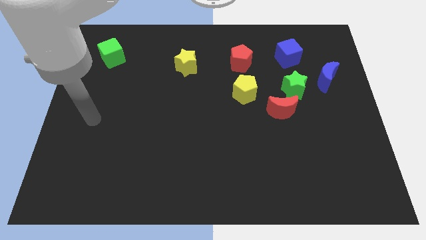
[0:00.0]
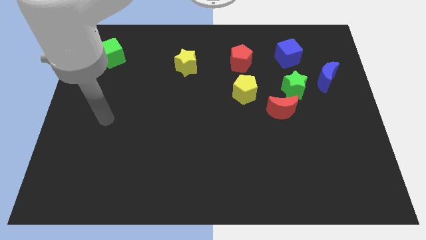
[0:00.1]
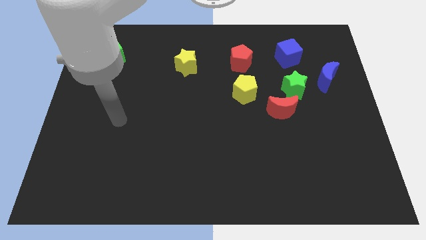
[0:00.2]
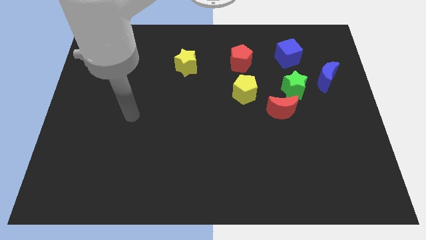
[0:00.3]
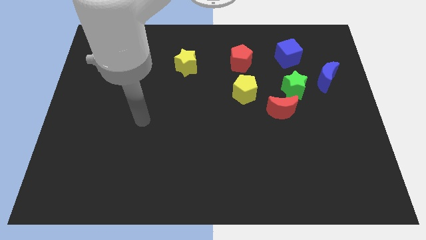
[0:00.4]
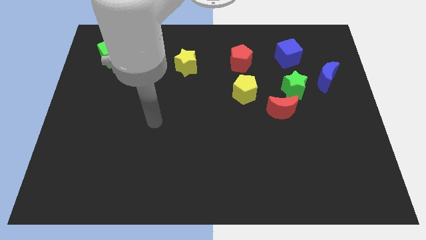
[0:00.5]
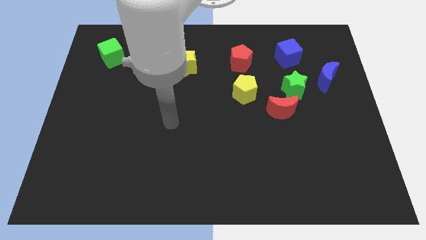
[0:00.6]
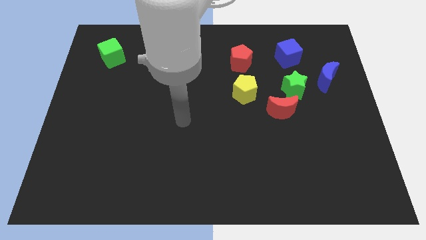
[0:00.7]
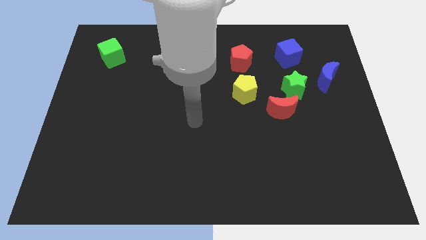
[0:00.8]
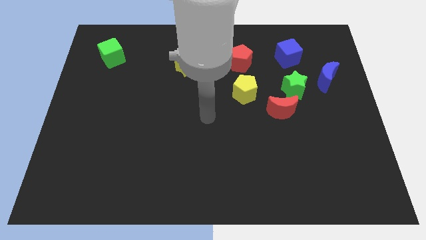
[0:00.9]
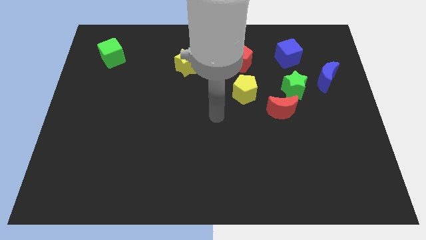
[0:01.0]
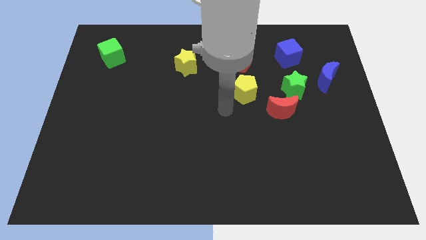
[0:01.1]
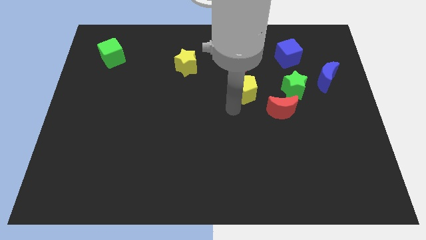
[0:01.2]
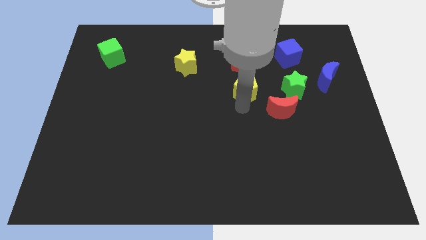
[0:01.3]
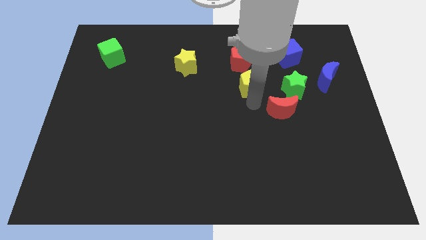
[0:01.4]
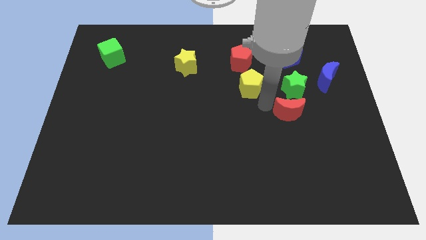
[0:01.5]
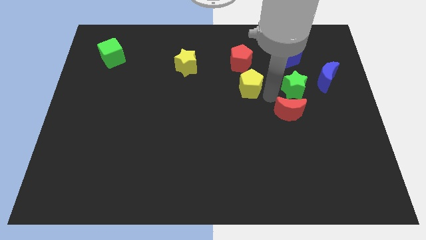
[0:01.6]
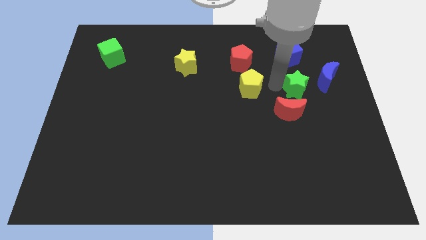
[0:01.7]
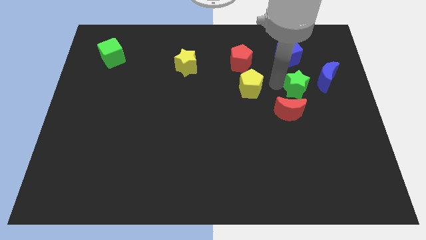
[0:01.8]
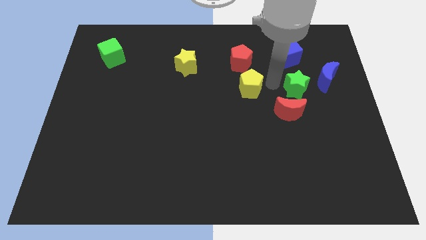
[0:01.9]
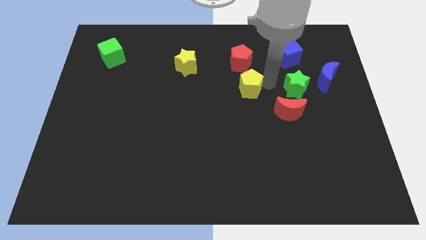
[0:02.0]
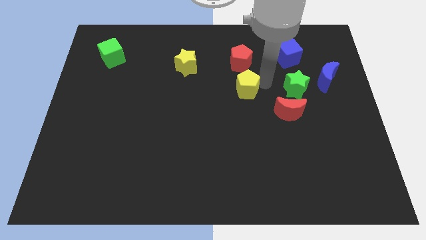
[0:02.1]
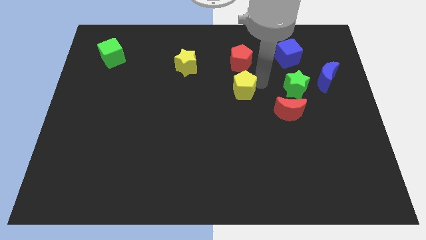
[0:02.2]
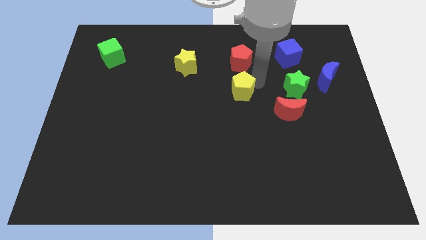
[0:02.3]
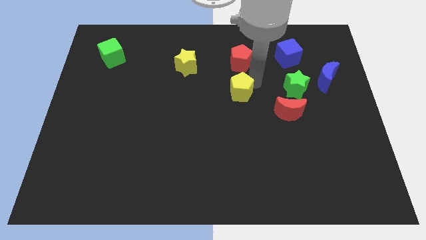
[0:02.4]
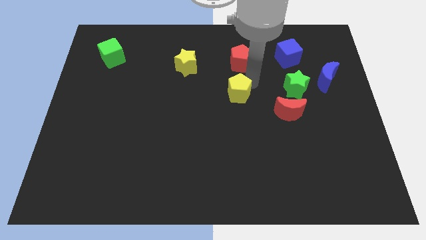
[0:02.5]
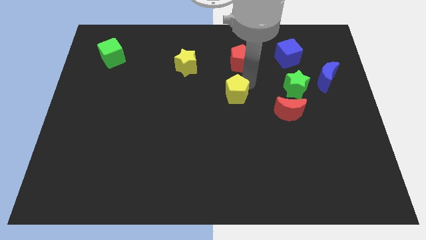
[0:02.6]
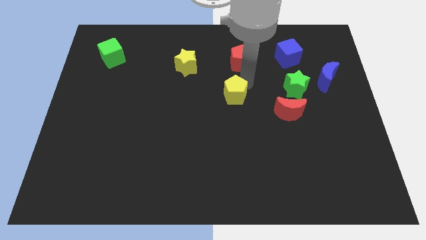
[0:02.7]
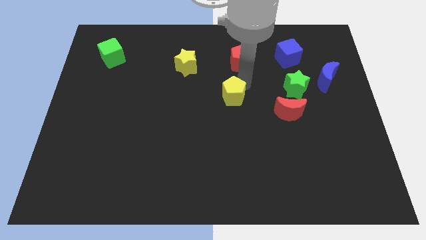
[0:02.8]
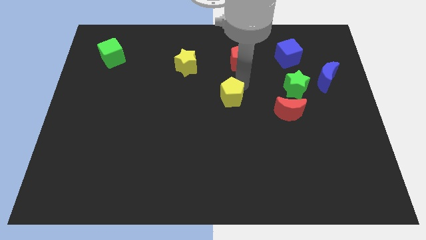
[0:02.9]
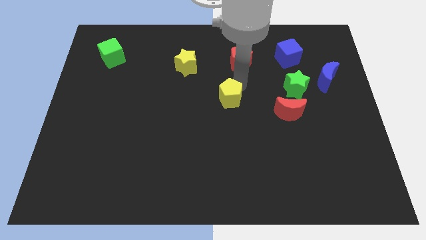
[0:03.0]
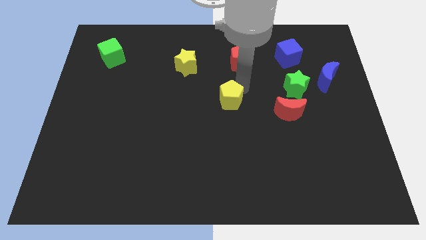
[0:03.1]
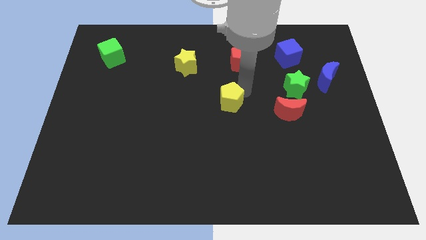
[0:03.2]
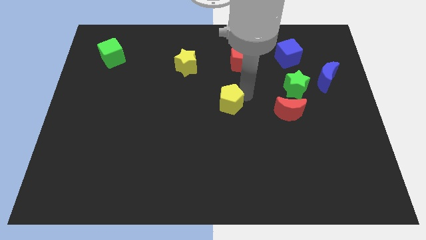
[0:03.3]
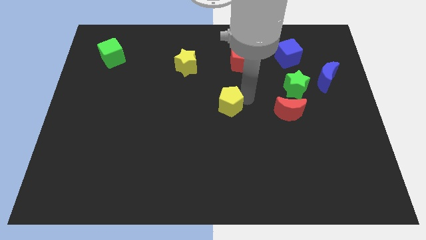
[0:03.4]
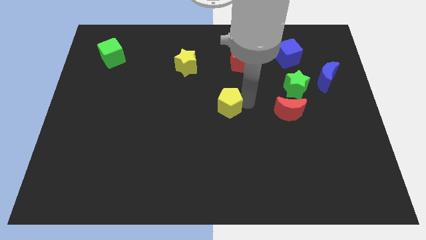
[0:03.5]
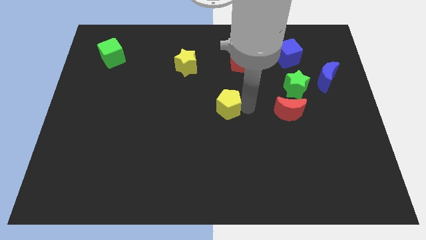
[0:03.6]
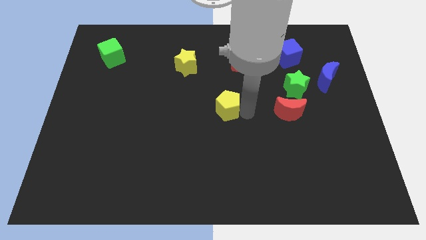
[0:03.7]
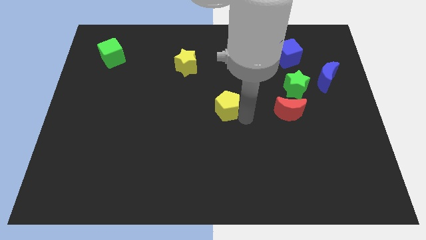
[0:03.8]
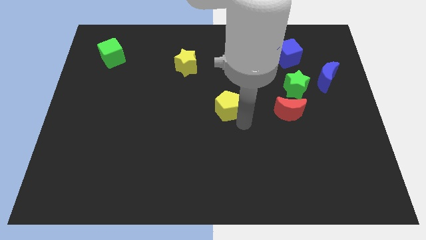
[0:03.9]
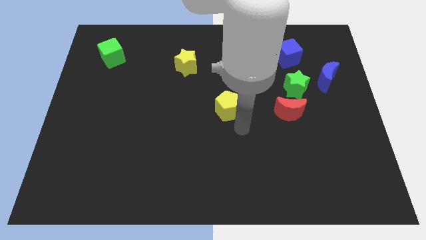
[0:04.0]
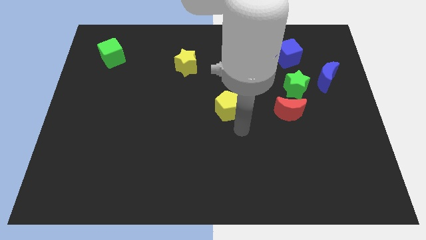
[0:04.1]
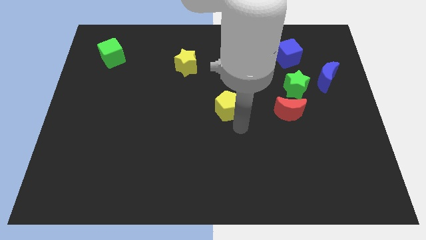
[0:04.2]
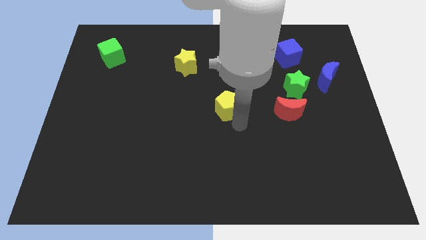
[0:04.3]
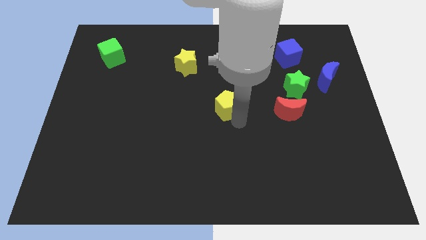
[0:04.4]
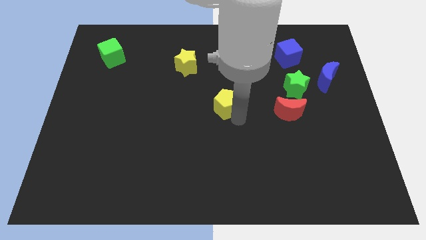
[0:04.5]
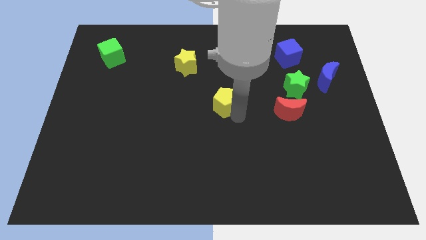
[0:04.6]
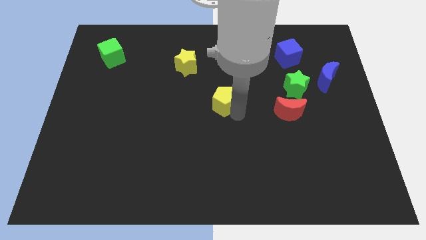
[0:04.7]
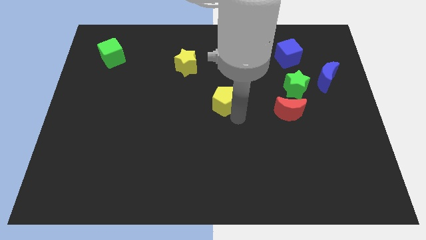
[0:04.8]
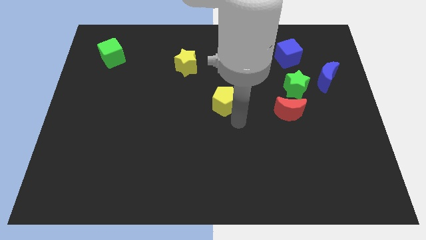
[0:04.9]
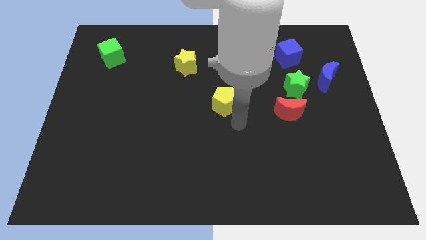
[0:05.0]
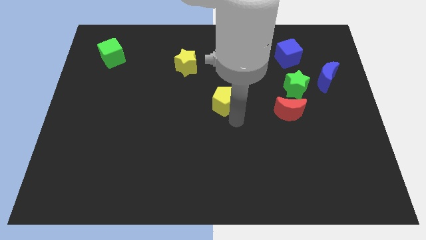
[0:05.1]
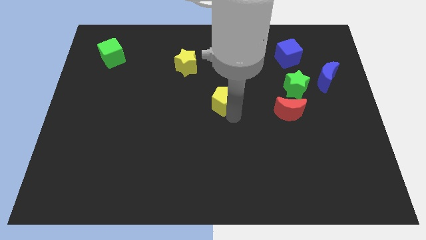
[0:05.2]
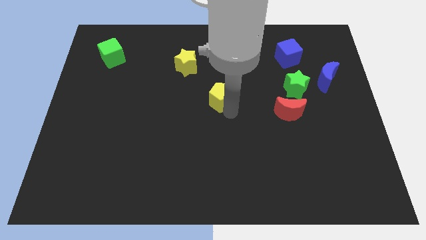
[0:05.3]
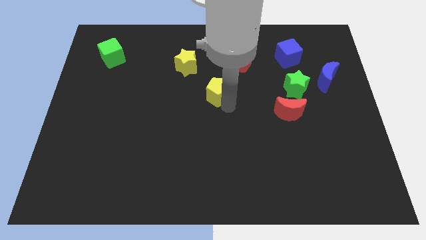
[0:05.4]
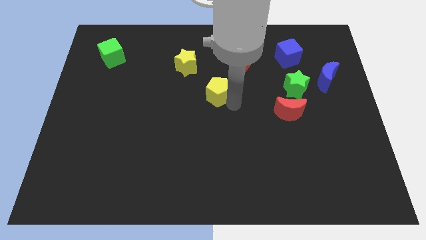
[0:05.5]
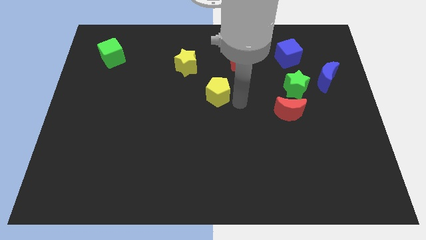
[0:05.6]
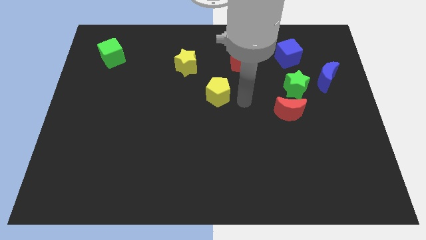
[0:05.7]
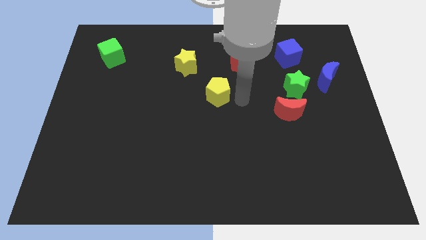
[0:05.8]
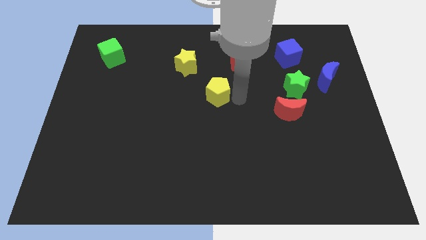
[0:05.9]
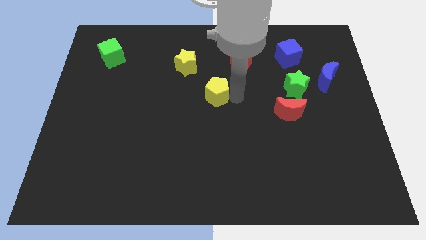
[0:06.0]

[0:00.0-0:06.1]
push the yellow pentagon slightly to the left

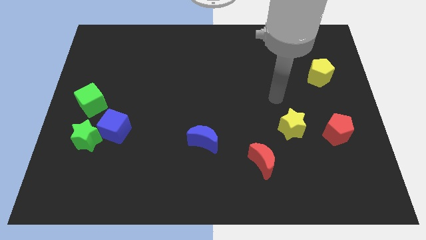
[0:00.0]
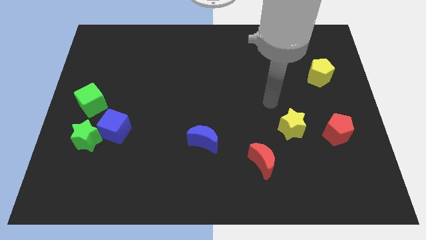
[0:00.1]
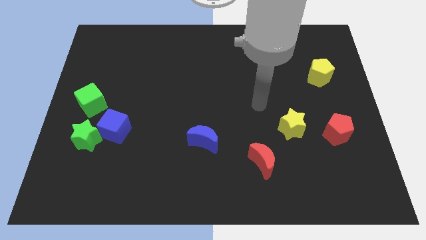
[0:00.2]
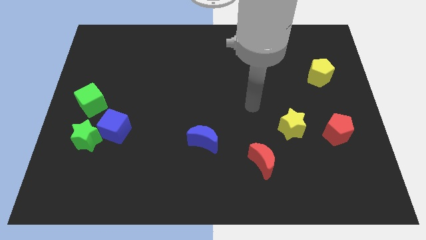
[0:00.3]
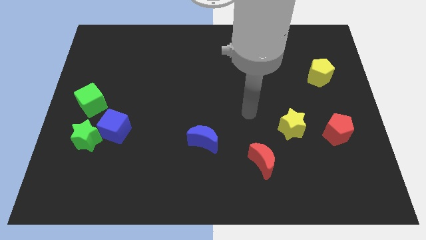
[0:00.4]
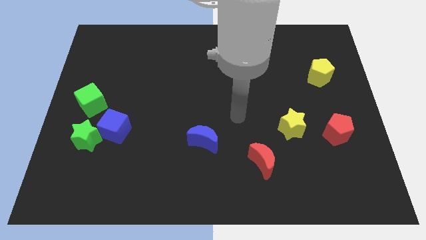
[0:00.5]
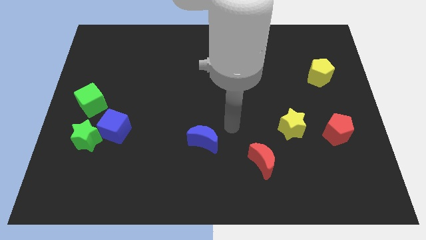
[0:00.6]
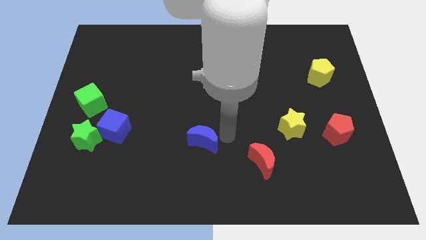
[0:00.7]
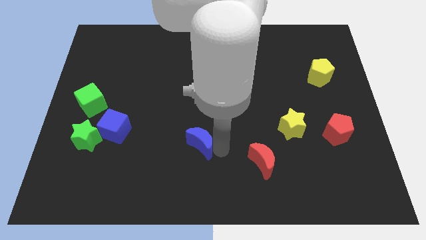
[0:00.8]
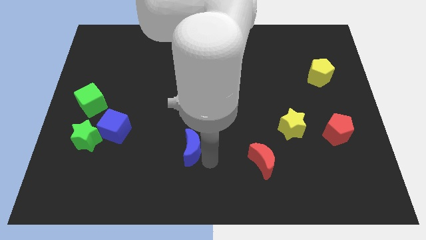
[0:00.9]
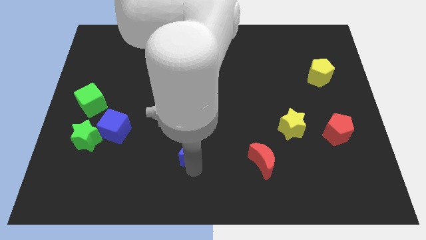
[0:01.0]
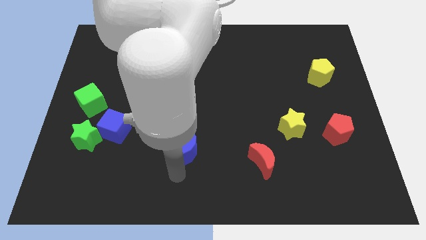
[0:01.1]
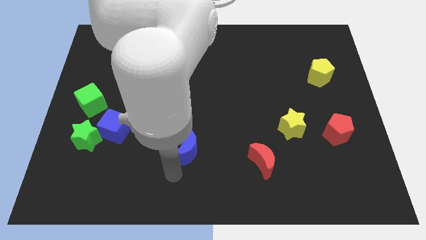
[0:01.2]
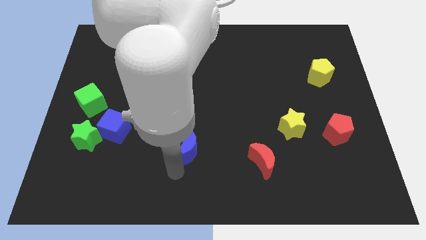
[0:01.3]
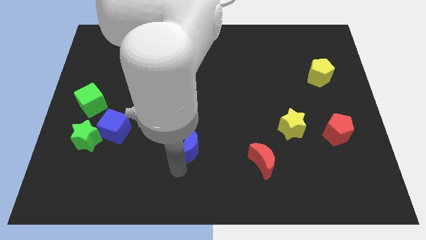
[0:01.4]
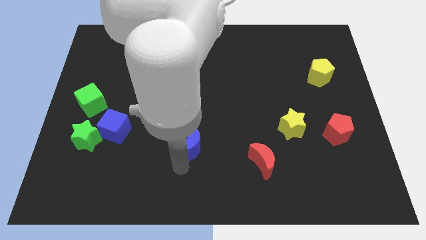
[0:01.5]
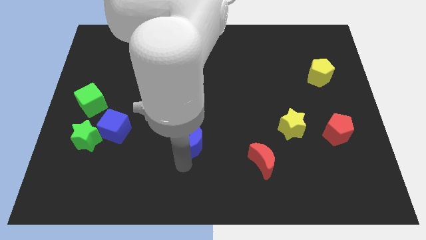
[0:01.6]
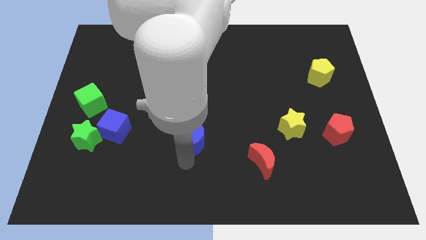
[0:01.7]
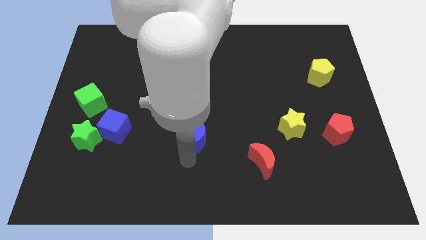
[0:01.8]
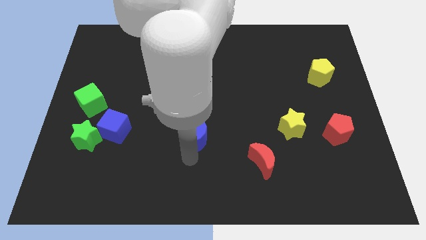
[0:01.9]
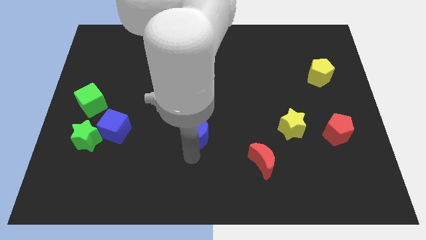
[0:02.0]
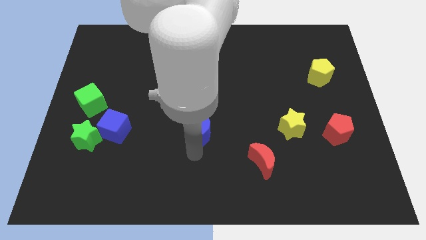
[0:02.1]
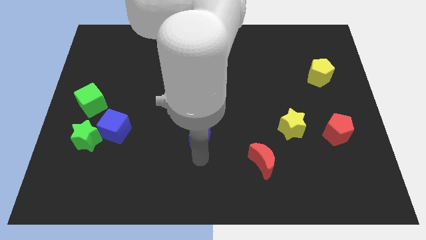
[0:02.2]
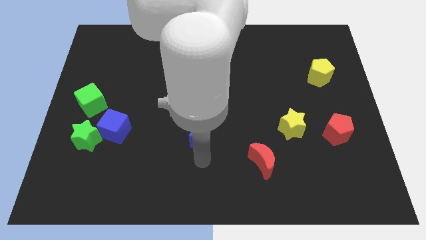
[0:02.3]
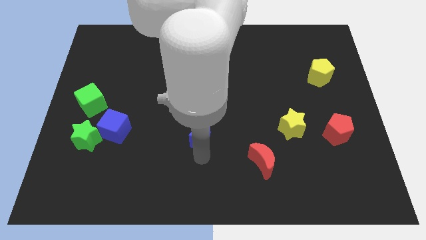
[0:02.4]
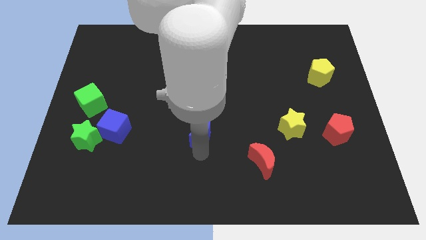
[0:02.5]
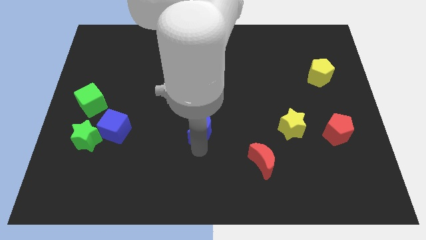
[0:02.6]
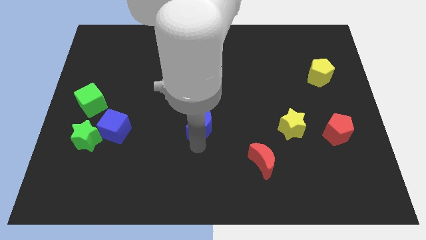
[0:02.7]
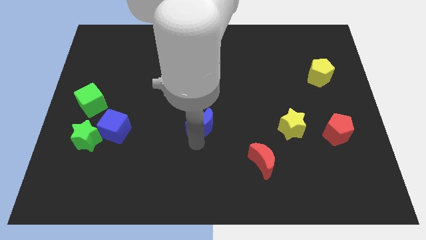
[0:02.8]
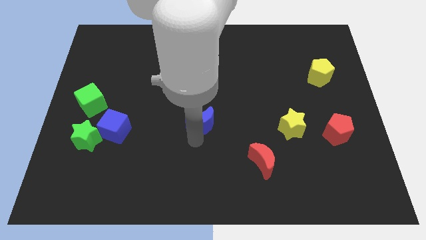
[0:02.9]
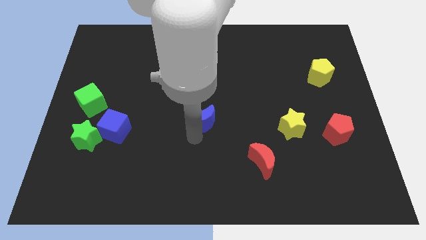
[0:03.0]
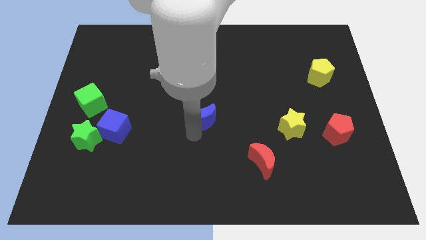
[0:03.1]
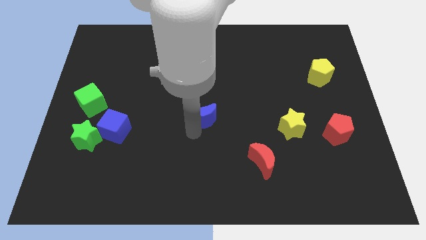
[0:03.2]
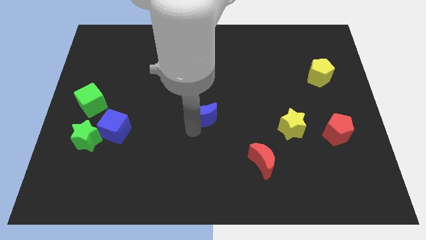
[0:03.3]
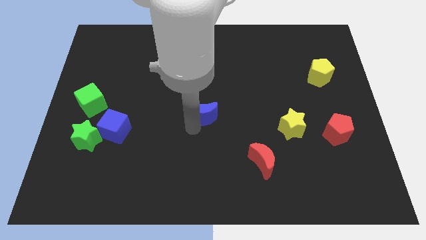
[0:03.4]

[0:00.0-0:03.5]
move the blue moon upwards a little
